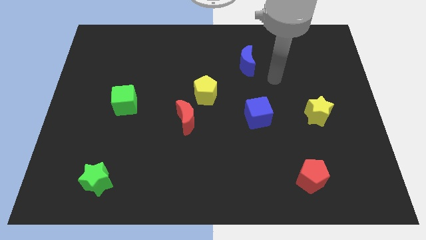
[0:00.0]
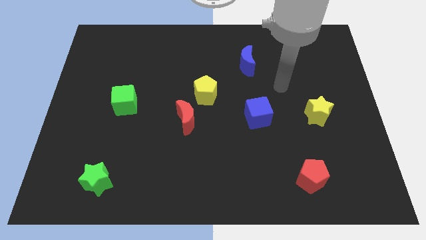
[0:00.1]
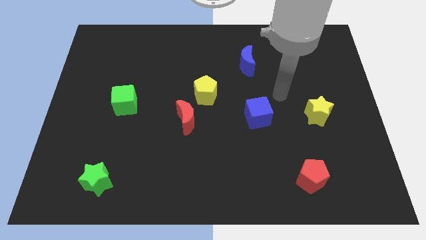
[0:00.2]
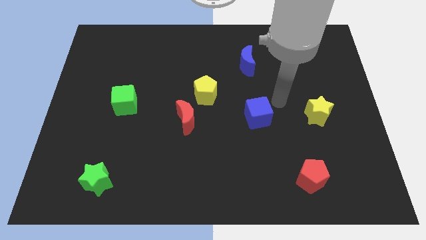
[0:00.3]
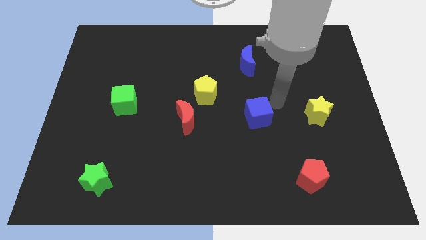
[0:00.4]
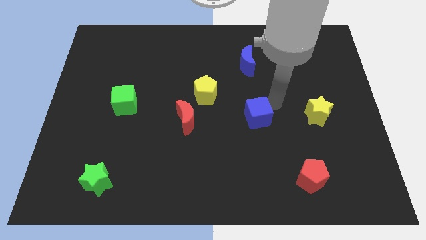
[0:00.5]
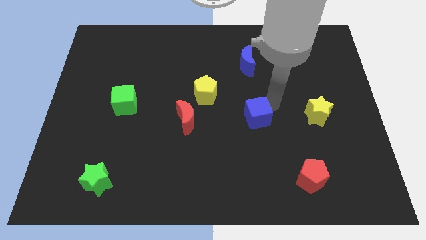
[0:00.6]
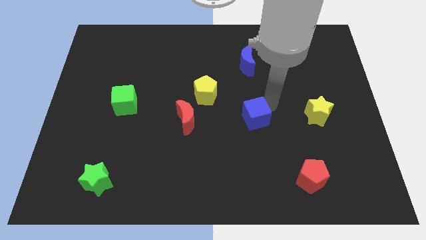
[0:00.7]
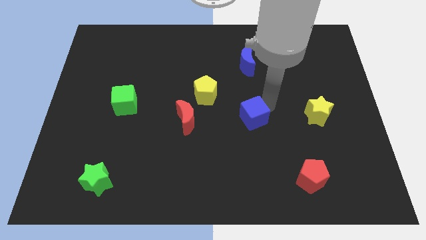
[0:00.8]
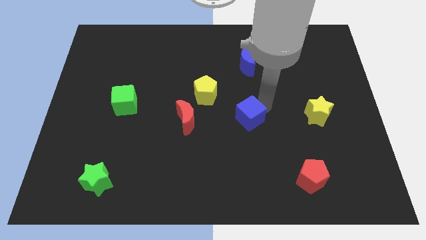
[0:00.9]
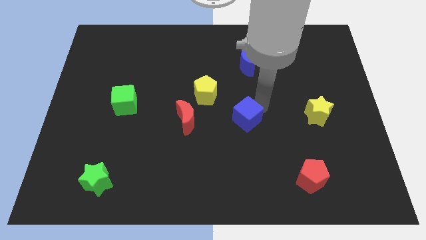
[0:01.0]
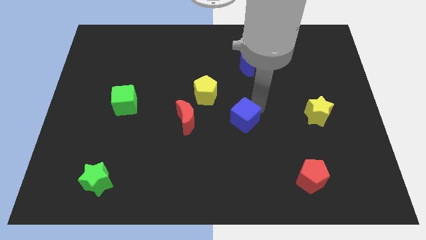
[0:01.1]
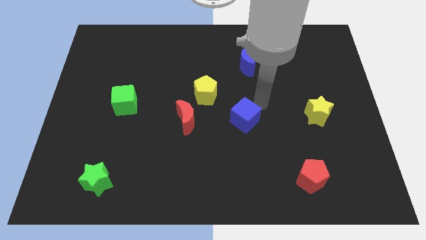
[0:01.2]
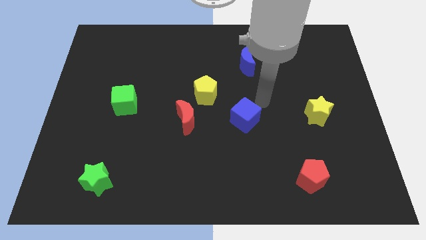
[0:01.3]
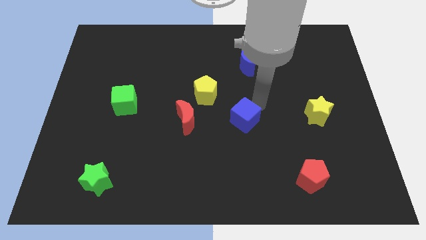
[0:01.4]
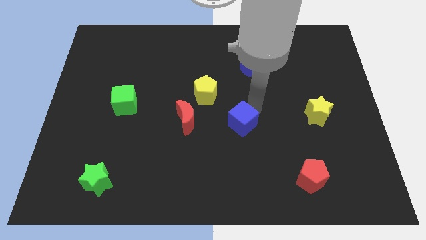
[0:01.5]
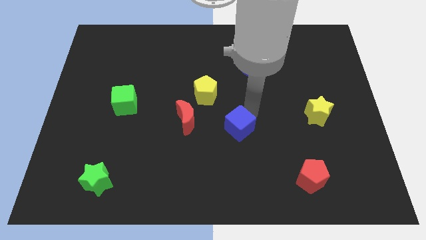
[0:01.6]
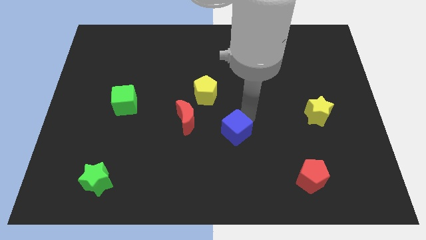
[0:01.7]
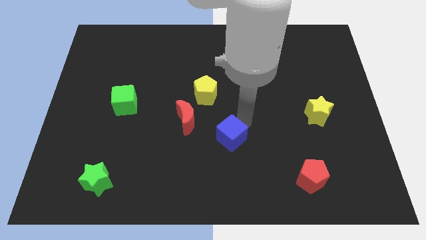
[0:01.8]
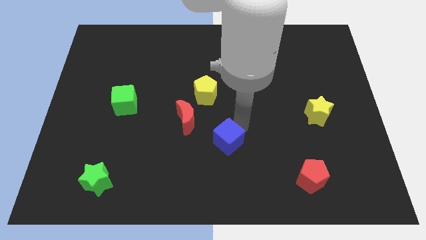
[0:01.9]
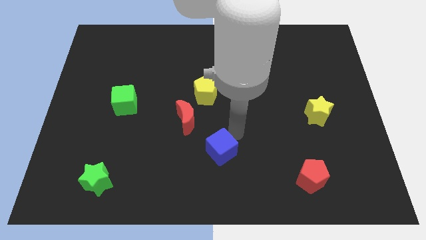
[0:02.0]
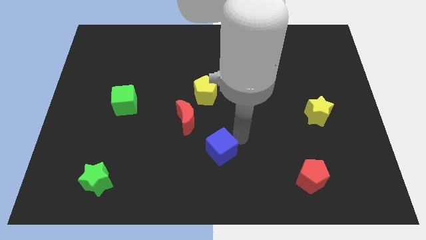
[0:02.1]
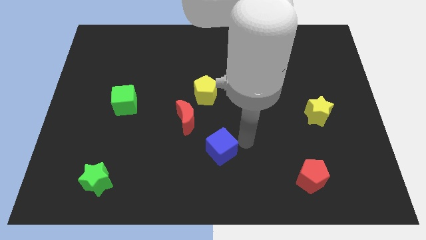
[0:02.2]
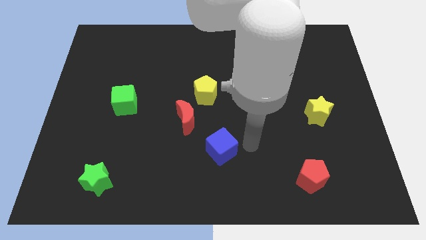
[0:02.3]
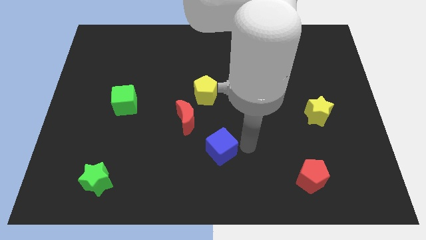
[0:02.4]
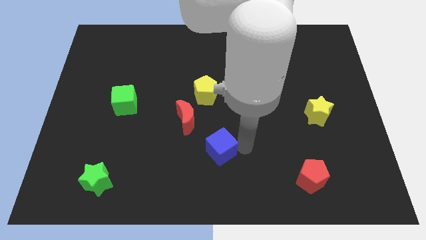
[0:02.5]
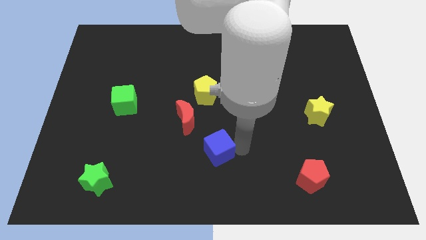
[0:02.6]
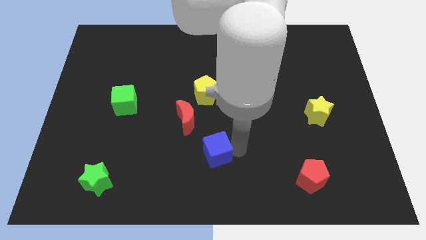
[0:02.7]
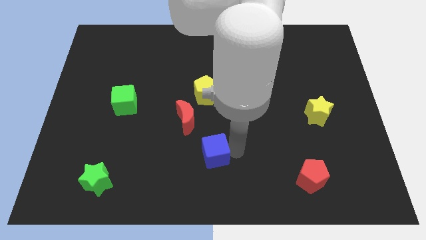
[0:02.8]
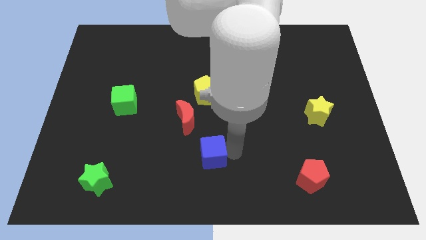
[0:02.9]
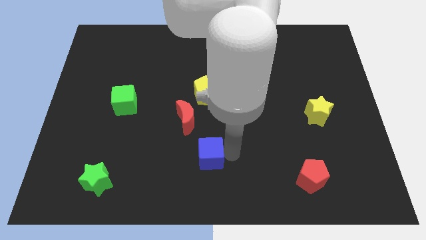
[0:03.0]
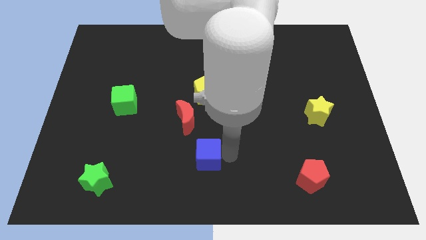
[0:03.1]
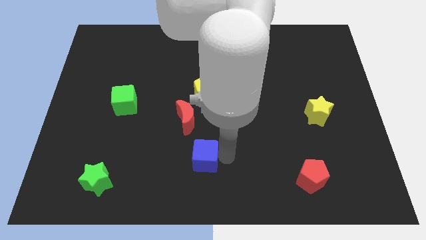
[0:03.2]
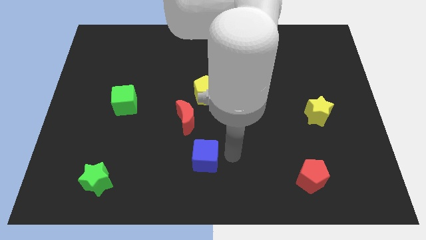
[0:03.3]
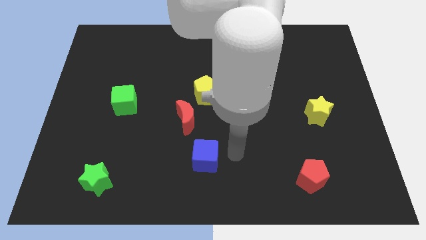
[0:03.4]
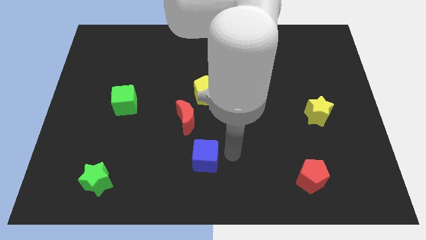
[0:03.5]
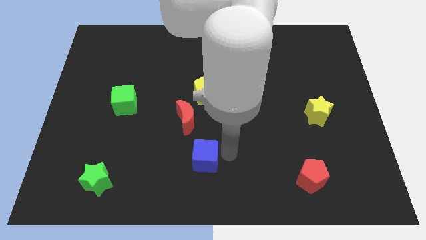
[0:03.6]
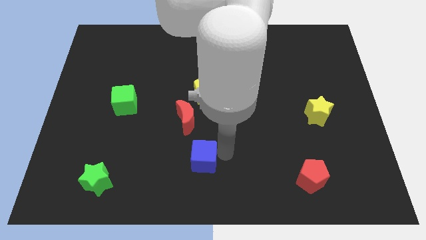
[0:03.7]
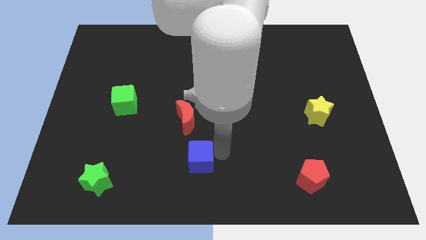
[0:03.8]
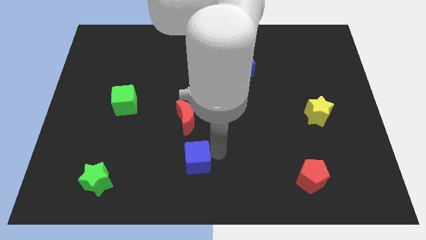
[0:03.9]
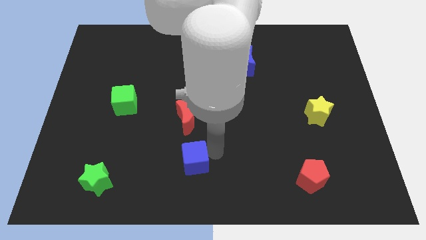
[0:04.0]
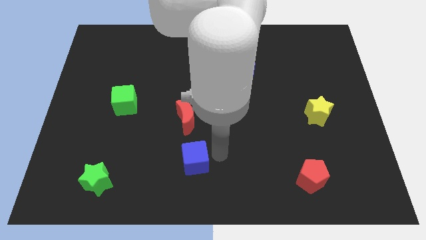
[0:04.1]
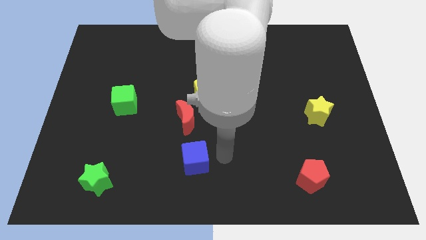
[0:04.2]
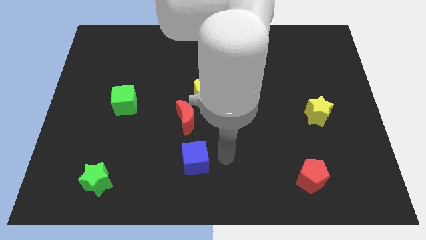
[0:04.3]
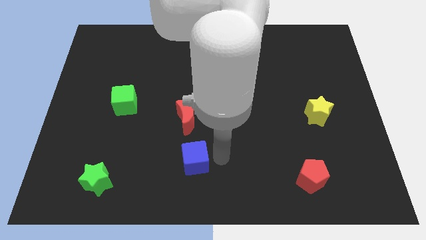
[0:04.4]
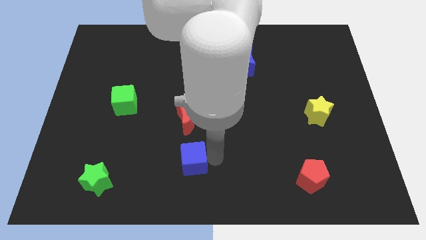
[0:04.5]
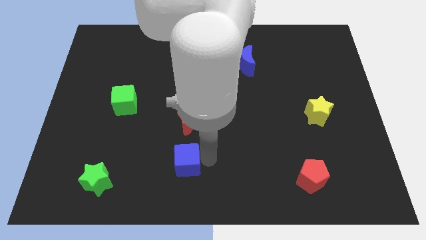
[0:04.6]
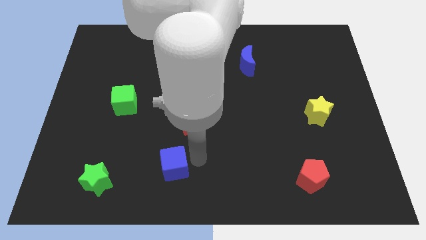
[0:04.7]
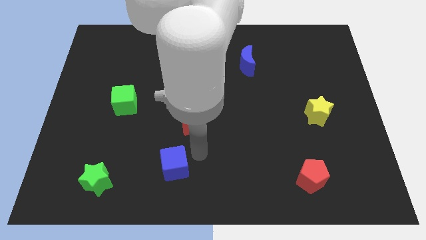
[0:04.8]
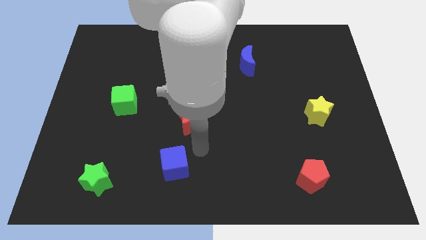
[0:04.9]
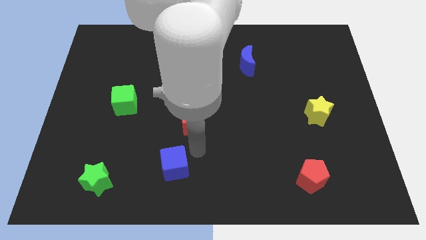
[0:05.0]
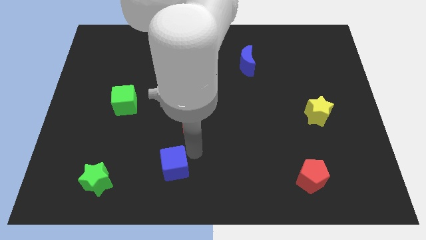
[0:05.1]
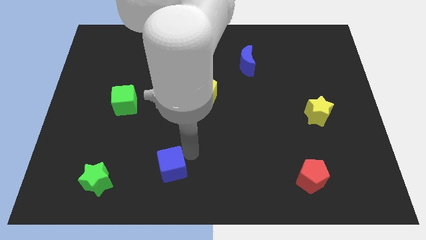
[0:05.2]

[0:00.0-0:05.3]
put the blue cube right of the green star

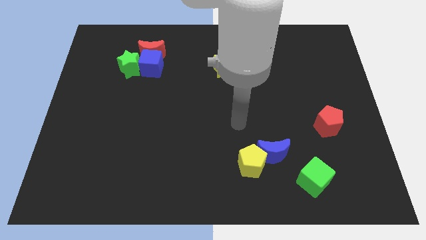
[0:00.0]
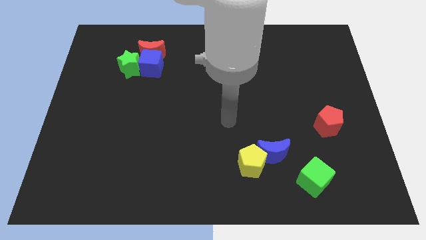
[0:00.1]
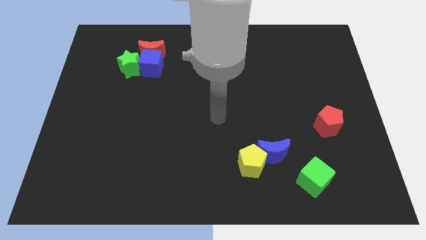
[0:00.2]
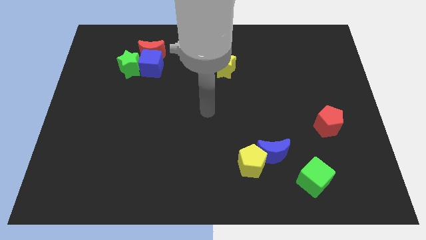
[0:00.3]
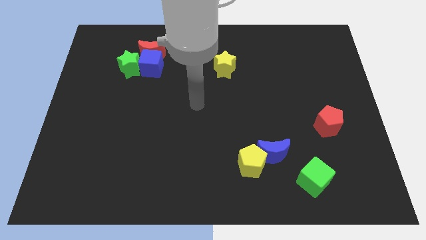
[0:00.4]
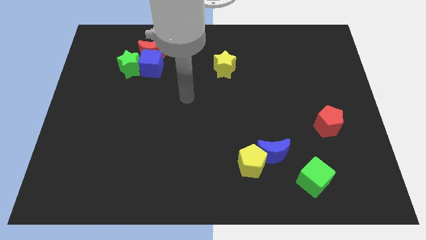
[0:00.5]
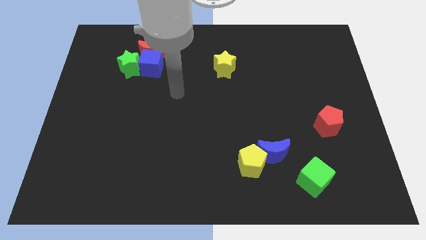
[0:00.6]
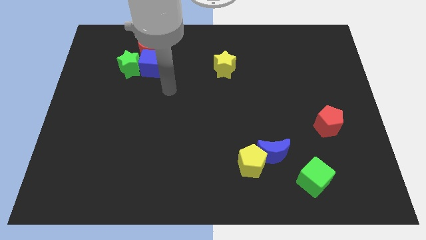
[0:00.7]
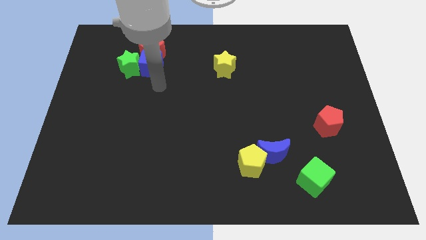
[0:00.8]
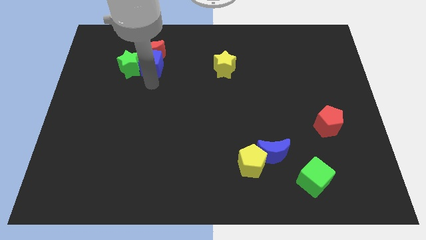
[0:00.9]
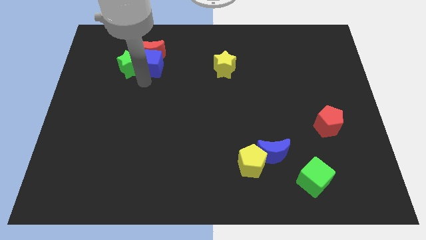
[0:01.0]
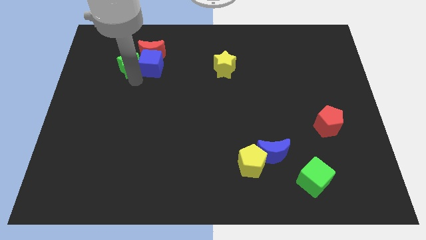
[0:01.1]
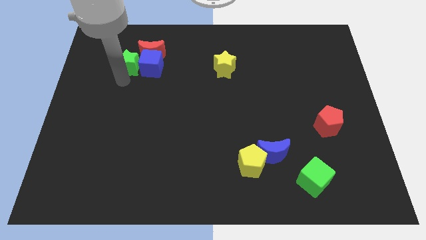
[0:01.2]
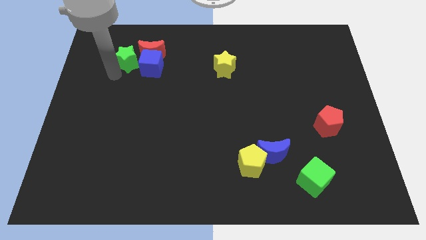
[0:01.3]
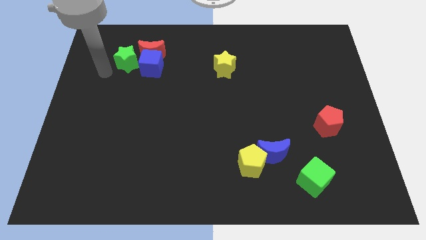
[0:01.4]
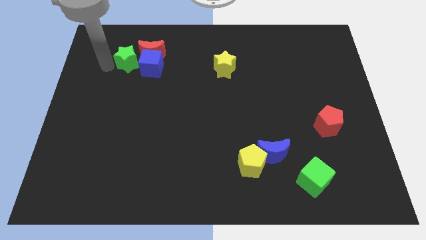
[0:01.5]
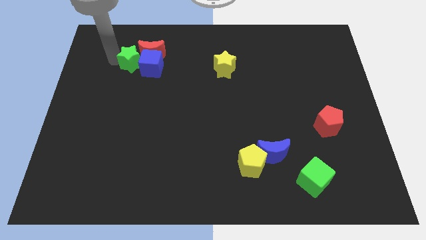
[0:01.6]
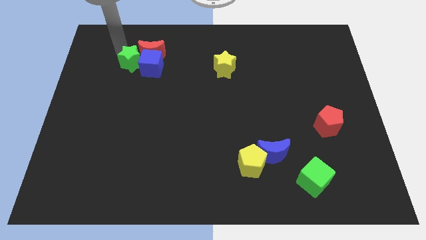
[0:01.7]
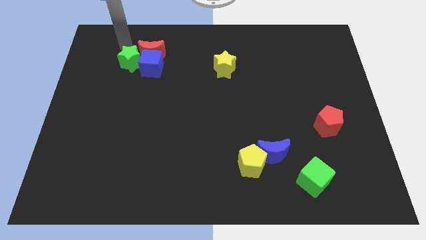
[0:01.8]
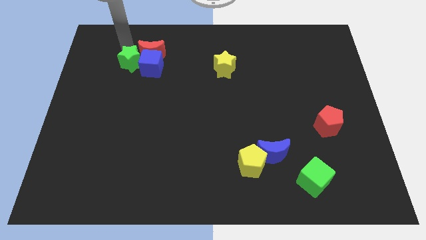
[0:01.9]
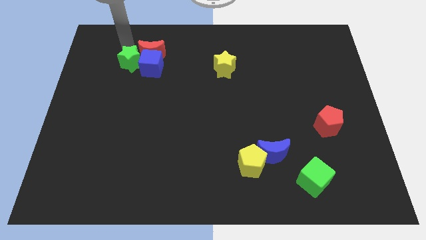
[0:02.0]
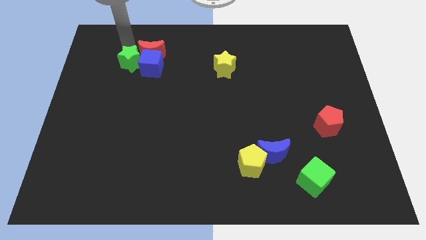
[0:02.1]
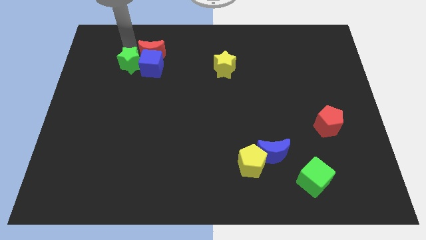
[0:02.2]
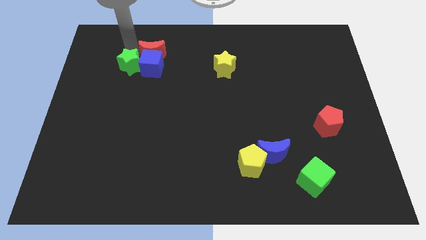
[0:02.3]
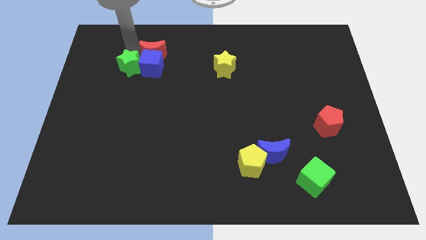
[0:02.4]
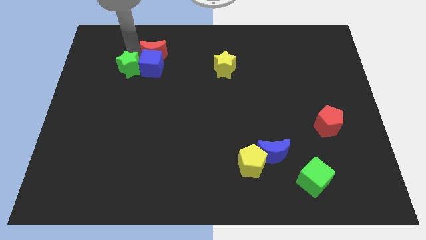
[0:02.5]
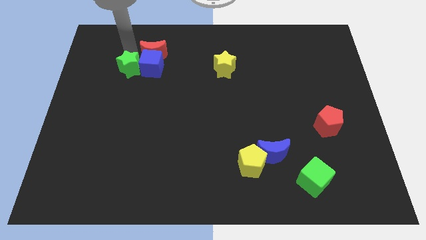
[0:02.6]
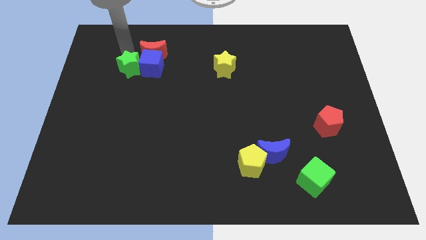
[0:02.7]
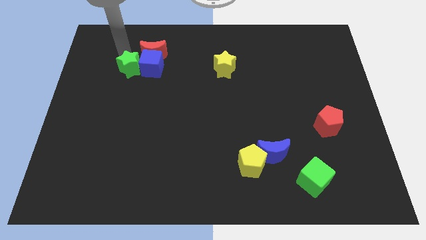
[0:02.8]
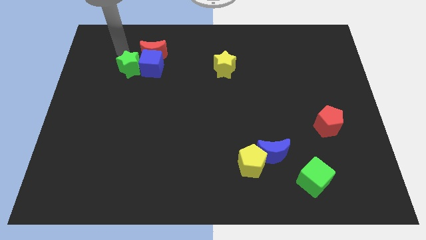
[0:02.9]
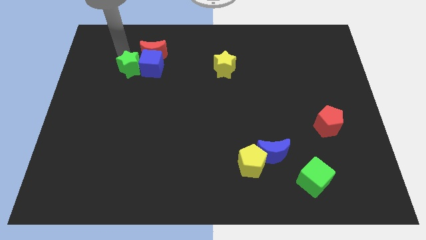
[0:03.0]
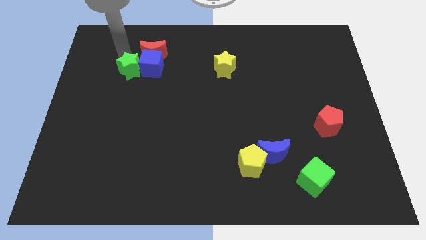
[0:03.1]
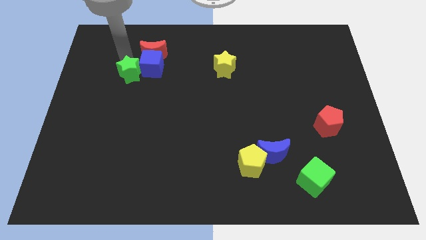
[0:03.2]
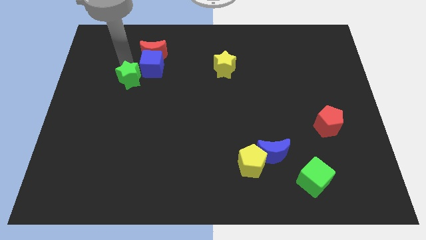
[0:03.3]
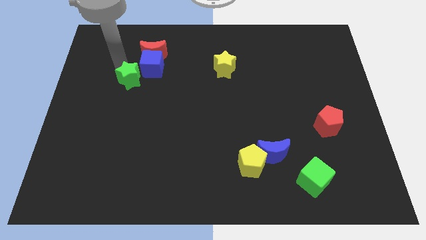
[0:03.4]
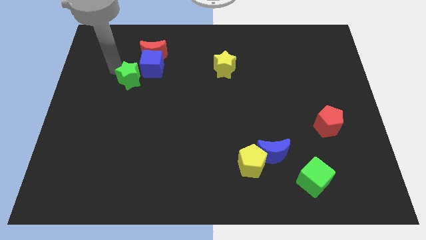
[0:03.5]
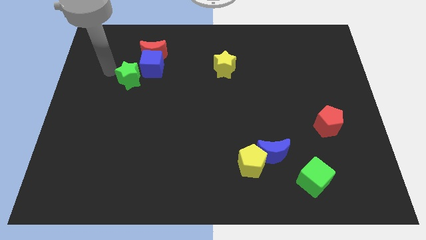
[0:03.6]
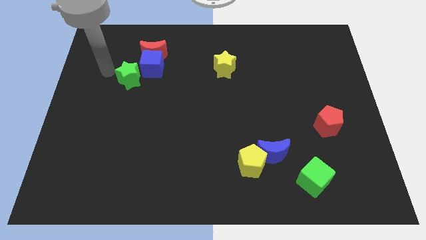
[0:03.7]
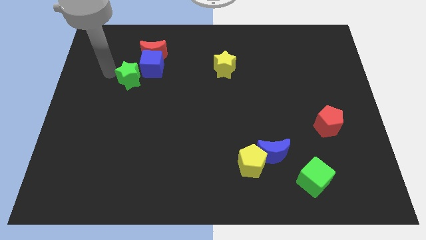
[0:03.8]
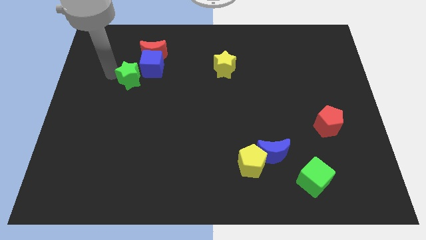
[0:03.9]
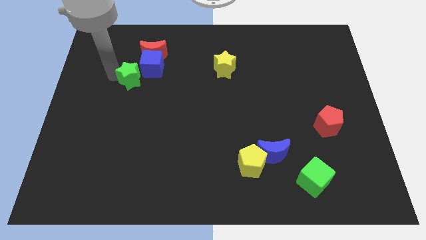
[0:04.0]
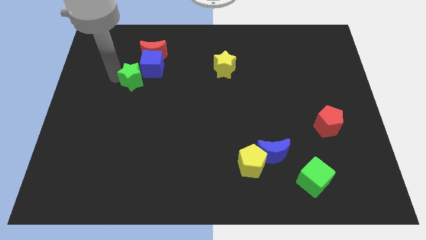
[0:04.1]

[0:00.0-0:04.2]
move the green star to the bottom of the red moon
